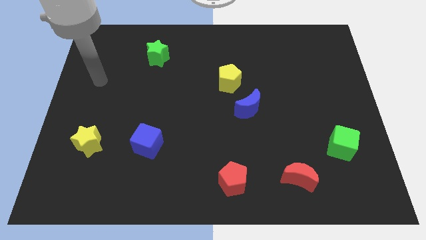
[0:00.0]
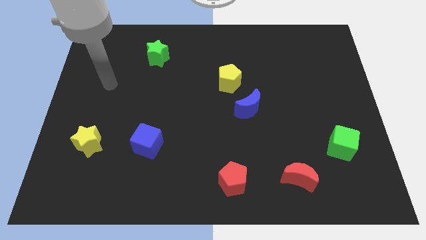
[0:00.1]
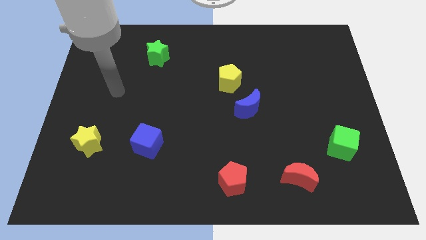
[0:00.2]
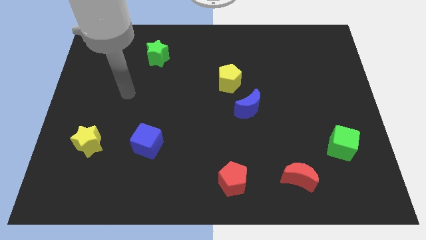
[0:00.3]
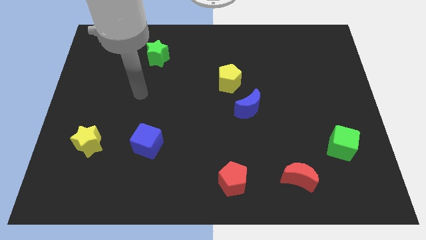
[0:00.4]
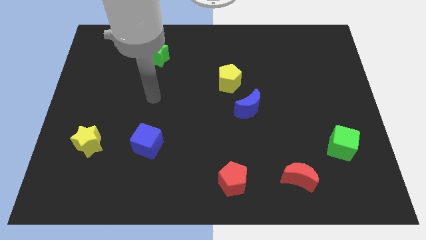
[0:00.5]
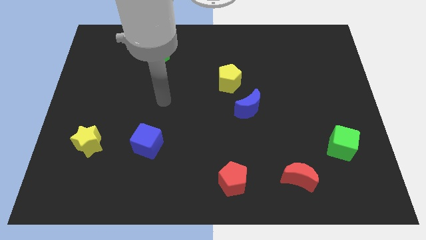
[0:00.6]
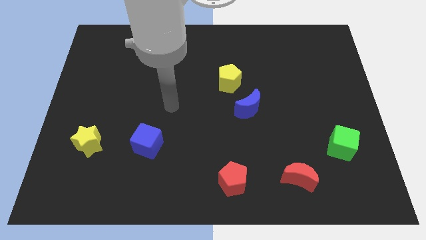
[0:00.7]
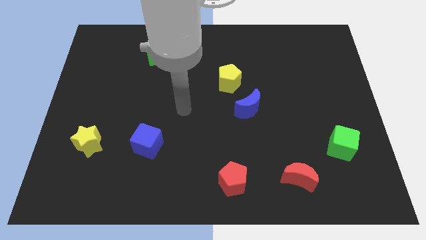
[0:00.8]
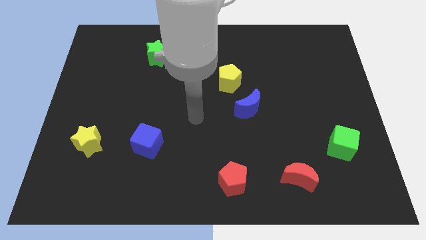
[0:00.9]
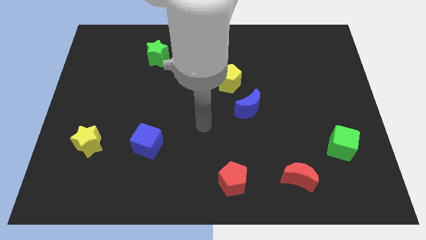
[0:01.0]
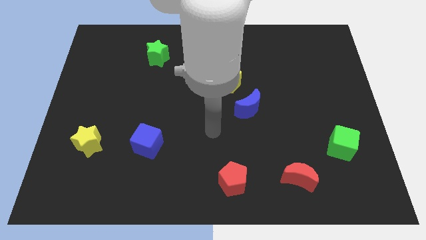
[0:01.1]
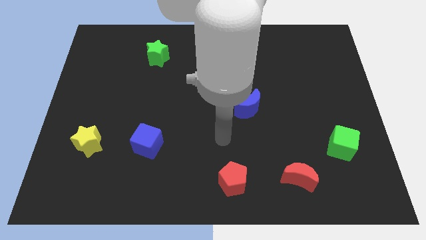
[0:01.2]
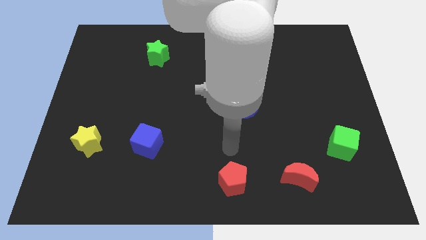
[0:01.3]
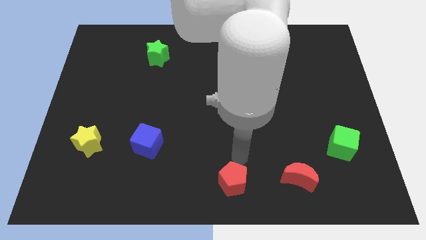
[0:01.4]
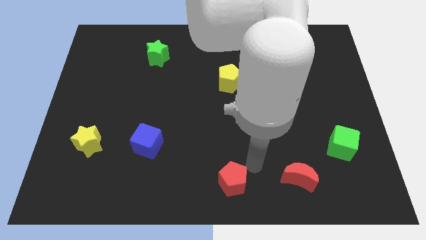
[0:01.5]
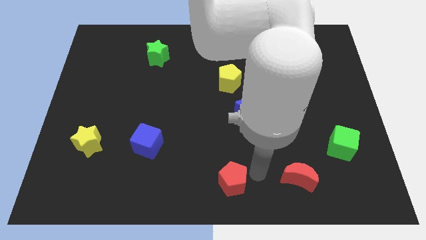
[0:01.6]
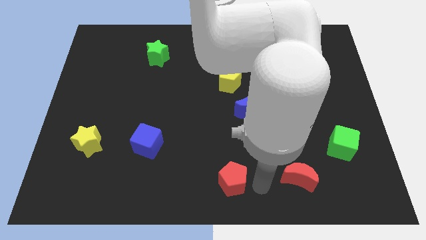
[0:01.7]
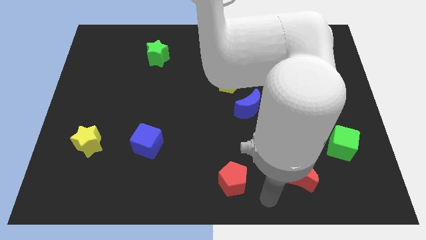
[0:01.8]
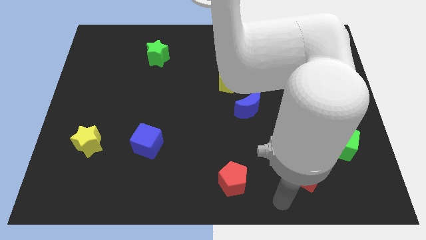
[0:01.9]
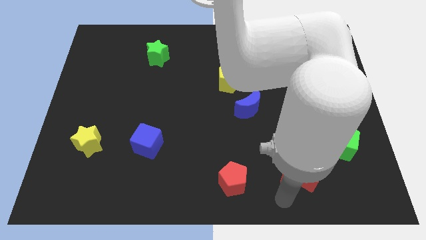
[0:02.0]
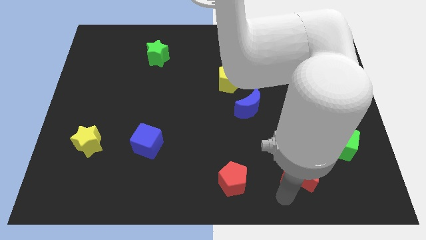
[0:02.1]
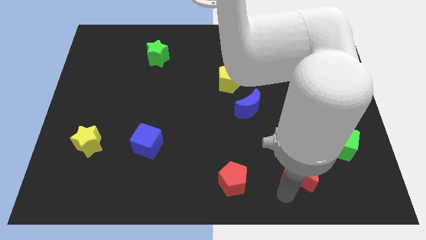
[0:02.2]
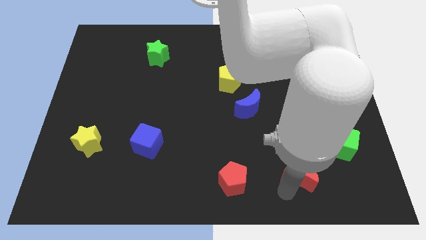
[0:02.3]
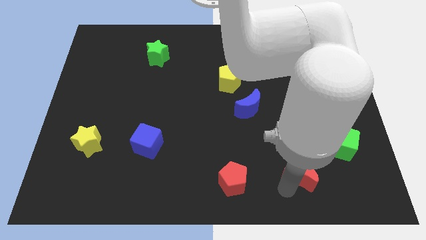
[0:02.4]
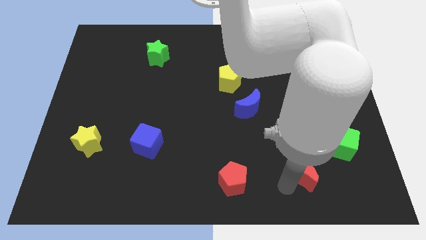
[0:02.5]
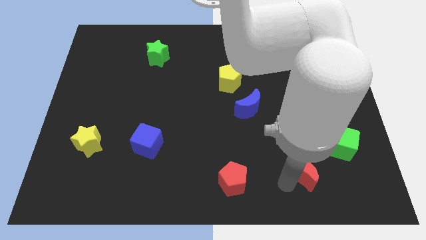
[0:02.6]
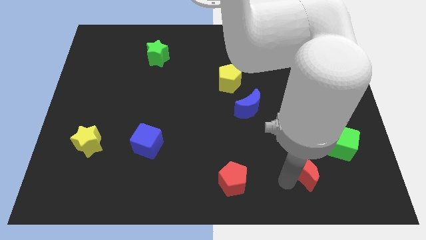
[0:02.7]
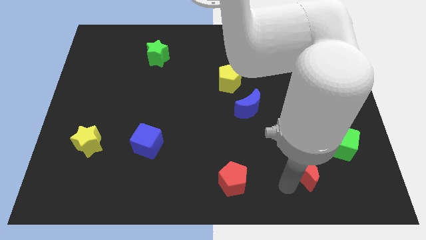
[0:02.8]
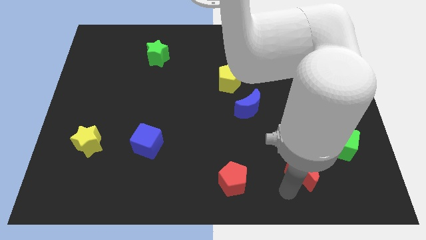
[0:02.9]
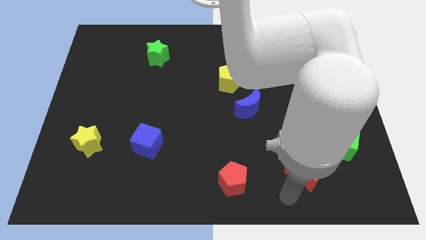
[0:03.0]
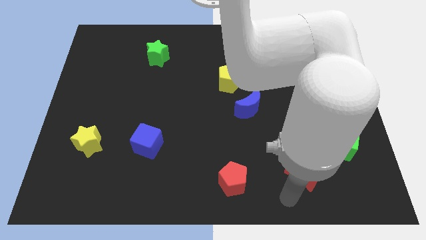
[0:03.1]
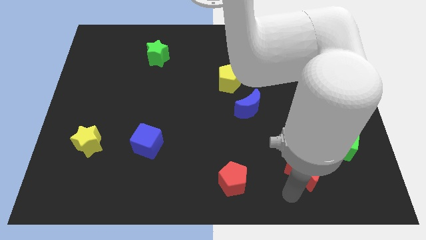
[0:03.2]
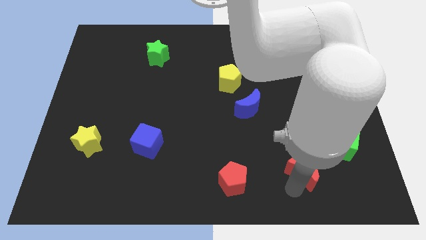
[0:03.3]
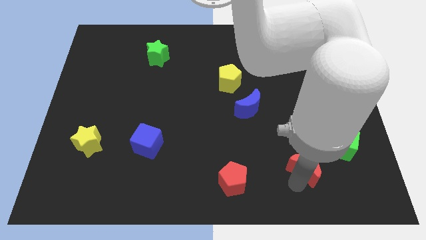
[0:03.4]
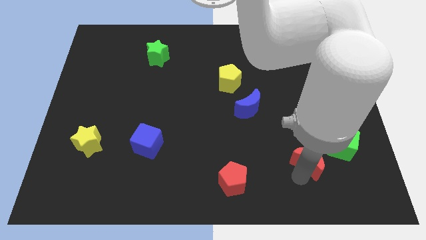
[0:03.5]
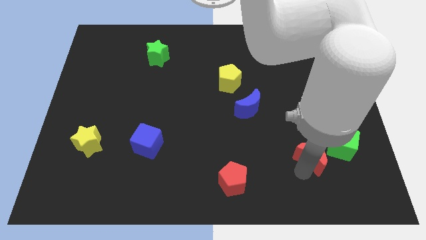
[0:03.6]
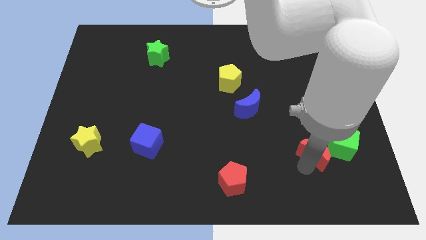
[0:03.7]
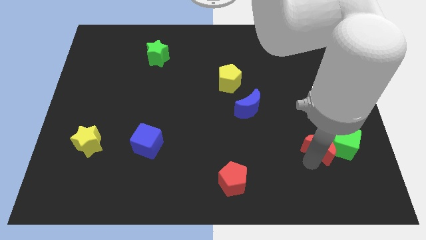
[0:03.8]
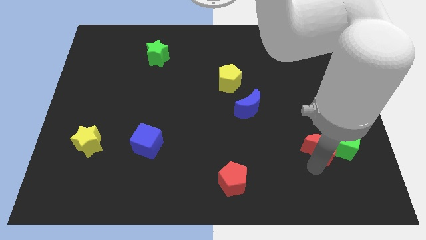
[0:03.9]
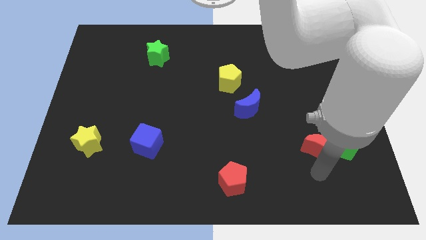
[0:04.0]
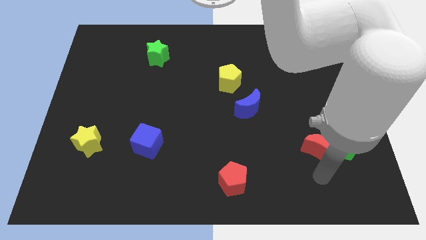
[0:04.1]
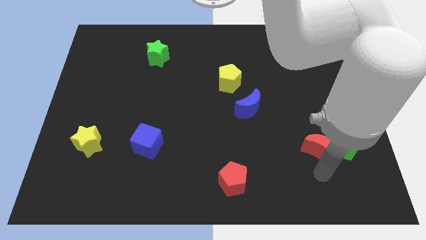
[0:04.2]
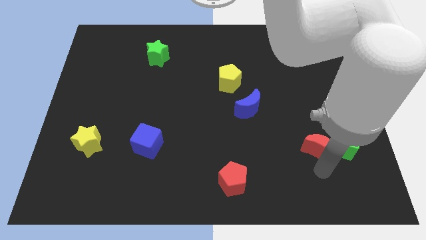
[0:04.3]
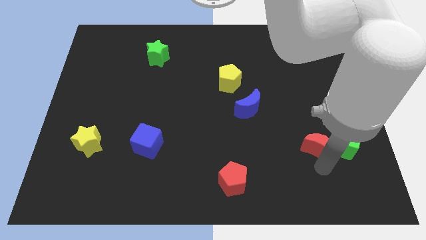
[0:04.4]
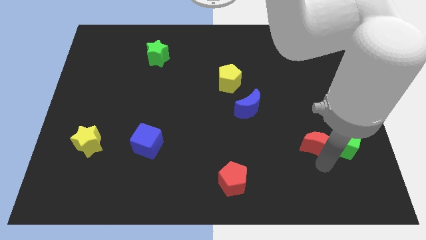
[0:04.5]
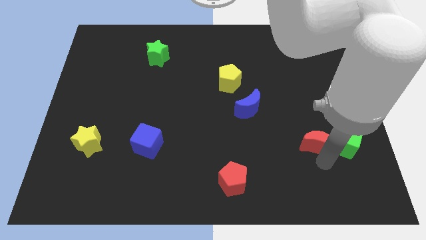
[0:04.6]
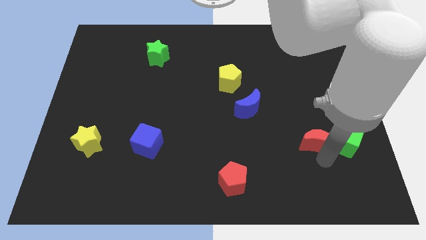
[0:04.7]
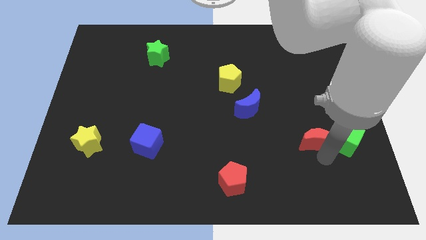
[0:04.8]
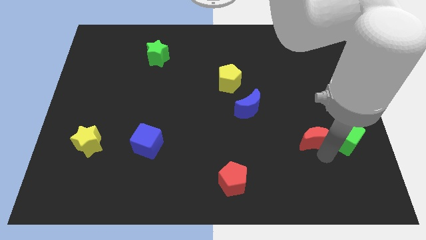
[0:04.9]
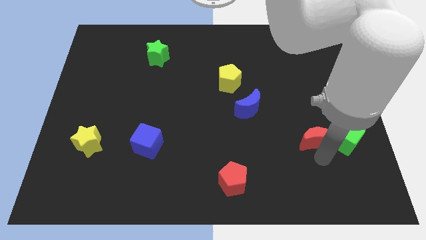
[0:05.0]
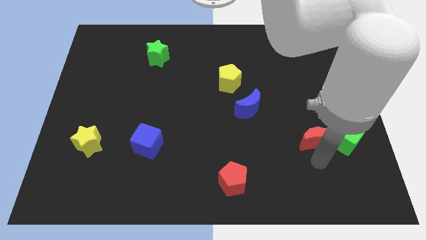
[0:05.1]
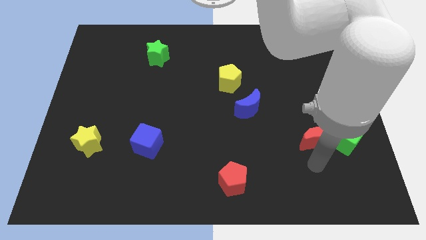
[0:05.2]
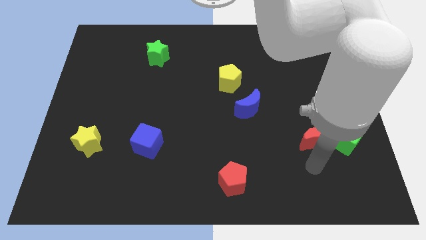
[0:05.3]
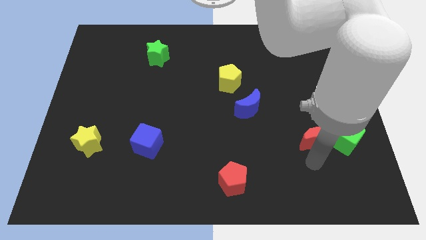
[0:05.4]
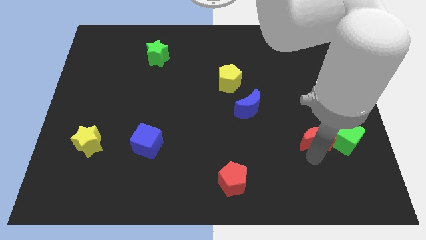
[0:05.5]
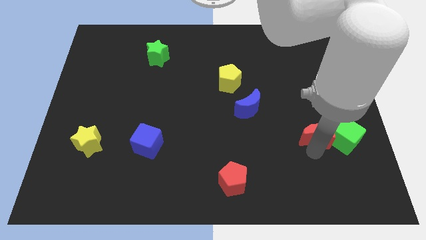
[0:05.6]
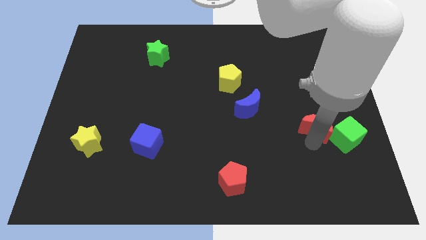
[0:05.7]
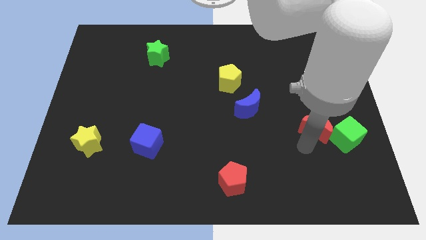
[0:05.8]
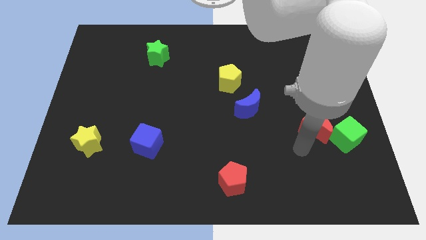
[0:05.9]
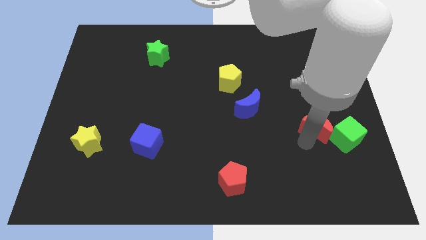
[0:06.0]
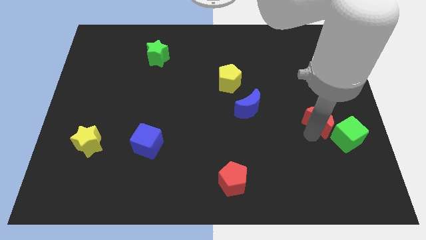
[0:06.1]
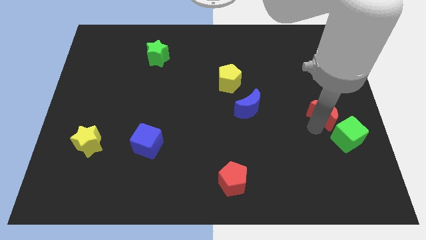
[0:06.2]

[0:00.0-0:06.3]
push the red moon to the top of the green cube
